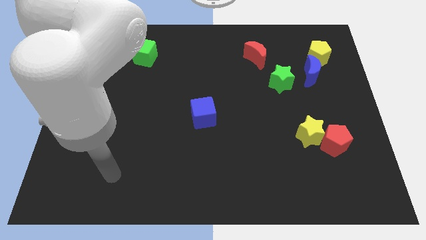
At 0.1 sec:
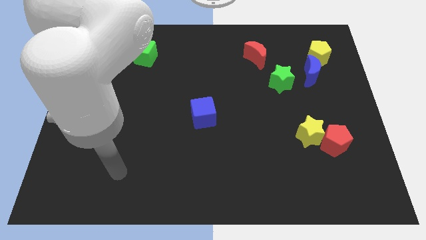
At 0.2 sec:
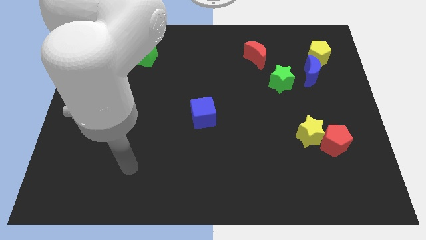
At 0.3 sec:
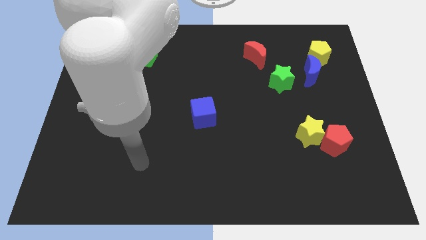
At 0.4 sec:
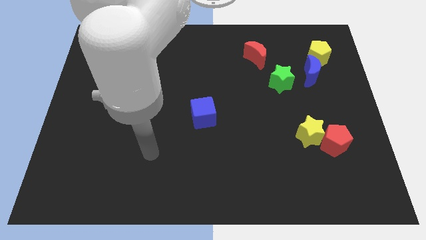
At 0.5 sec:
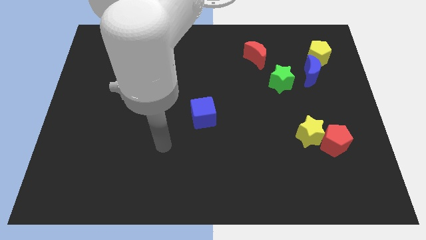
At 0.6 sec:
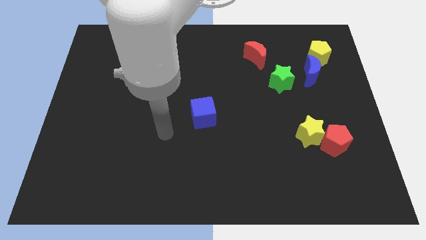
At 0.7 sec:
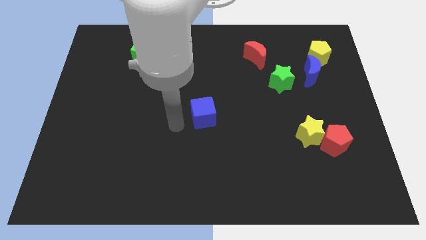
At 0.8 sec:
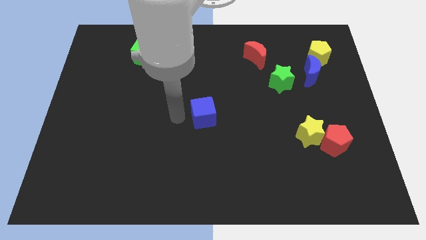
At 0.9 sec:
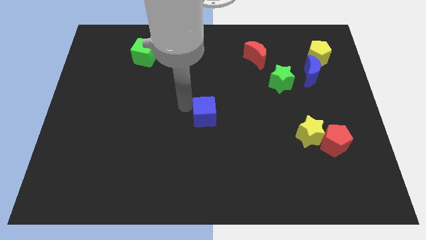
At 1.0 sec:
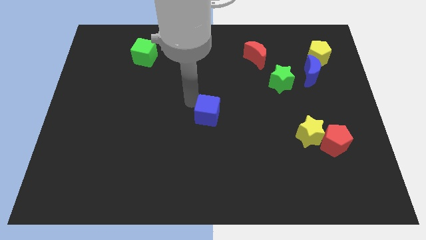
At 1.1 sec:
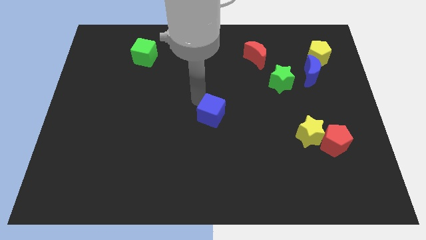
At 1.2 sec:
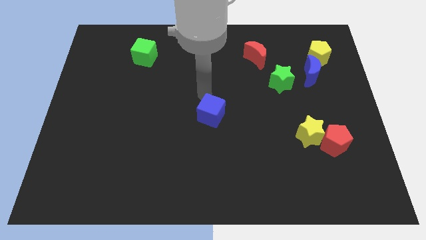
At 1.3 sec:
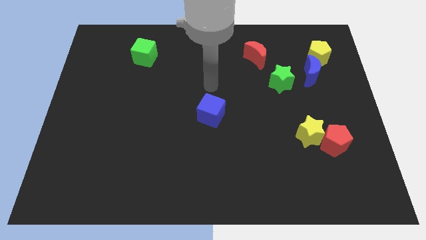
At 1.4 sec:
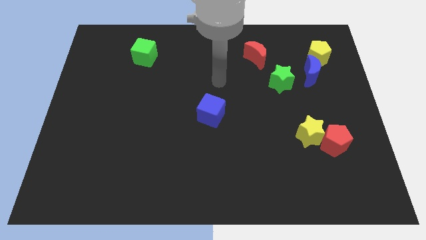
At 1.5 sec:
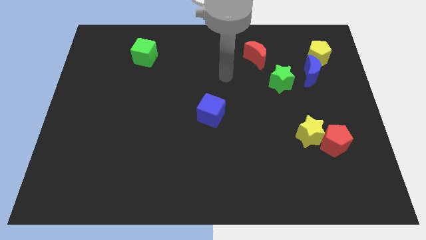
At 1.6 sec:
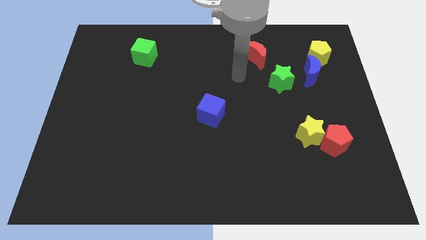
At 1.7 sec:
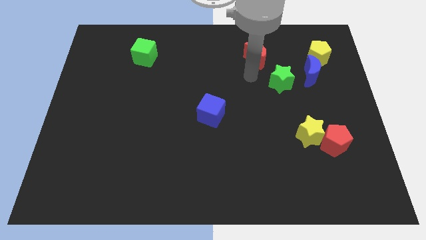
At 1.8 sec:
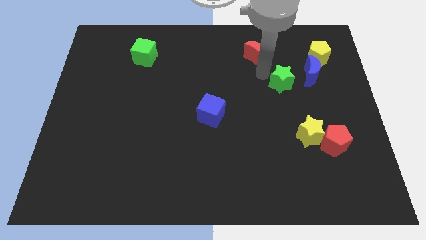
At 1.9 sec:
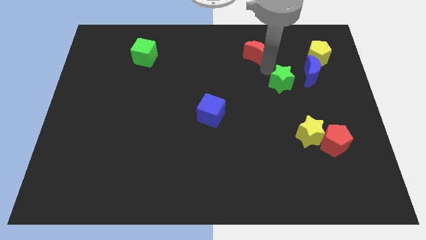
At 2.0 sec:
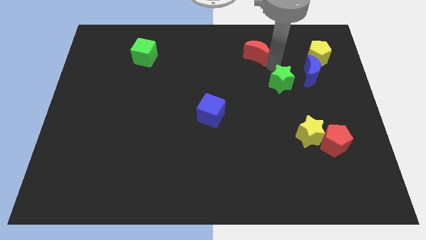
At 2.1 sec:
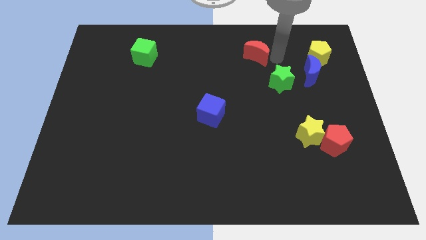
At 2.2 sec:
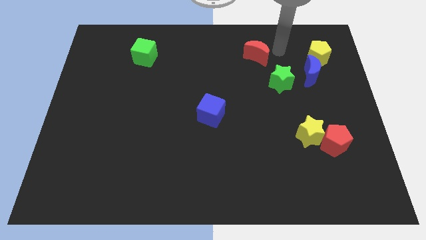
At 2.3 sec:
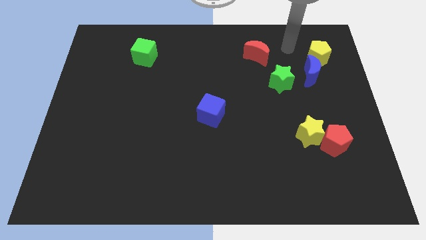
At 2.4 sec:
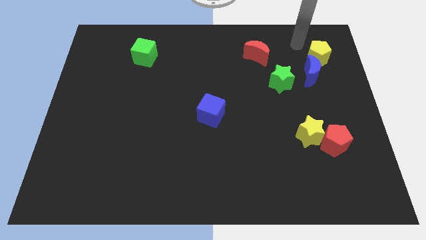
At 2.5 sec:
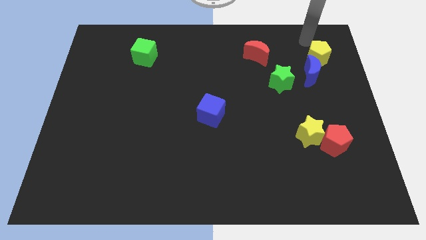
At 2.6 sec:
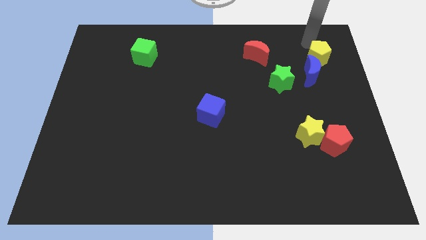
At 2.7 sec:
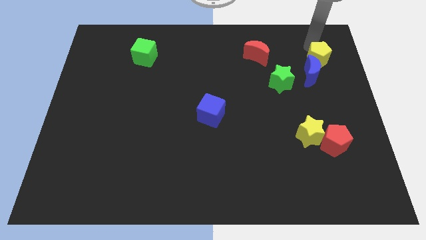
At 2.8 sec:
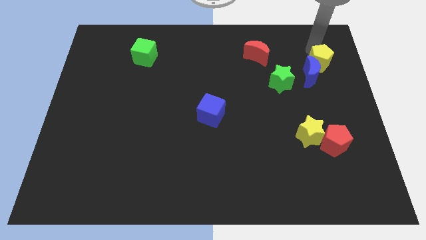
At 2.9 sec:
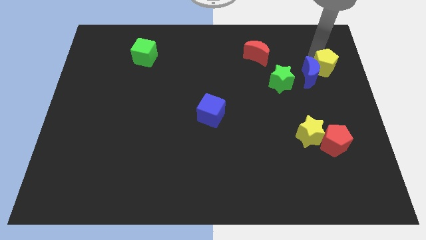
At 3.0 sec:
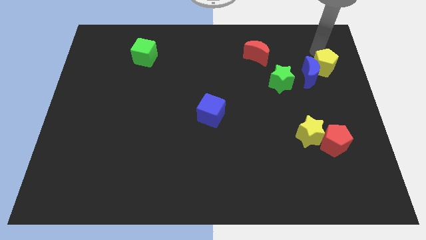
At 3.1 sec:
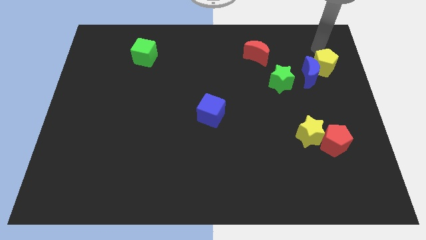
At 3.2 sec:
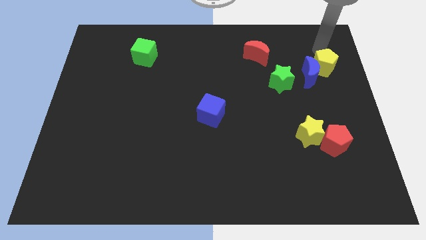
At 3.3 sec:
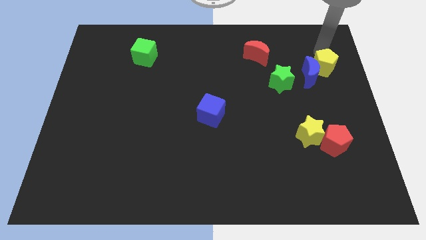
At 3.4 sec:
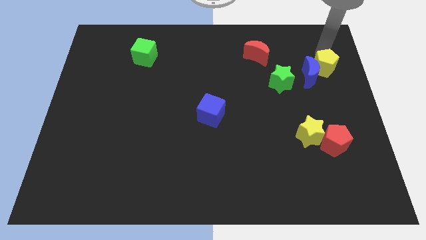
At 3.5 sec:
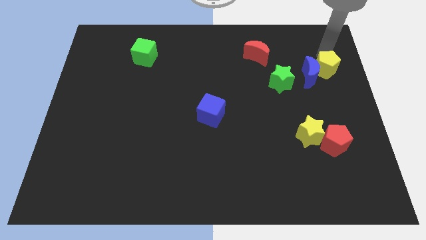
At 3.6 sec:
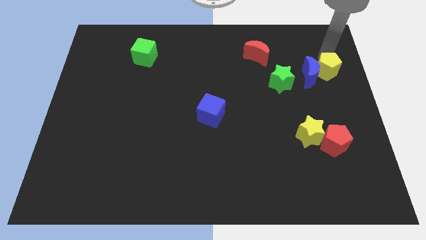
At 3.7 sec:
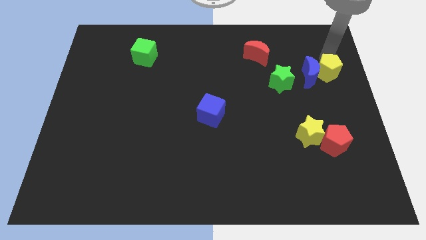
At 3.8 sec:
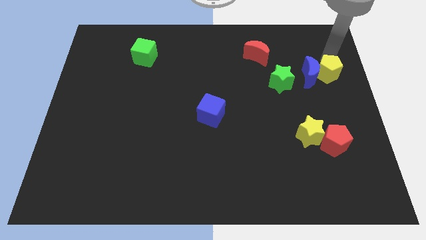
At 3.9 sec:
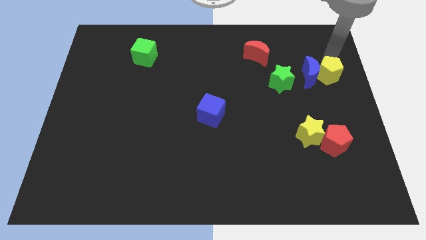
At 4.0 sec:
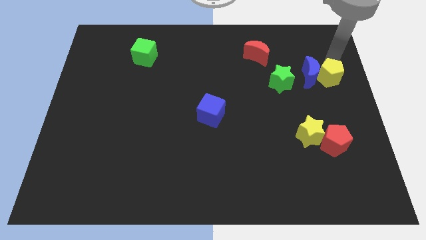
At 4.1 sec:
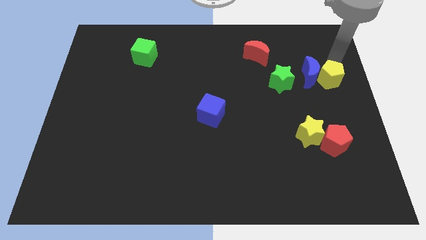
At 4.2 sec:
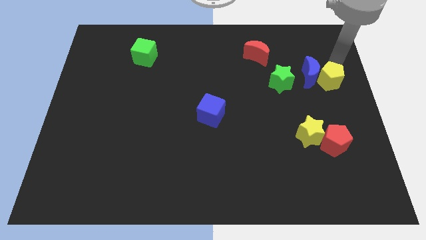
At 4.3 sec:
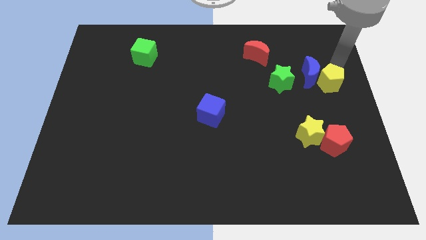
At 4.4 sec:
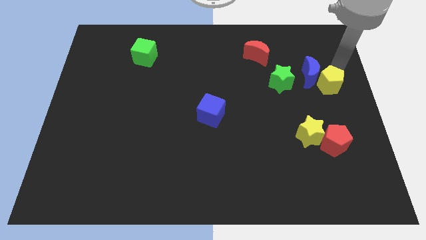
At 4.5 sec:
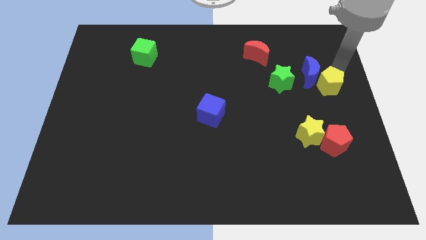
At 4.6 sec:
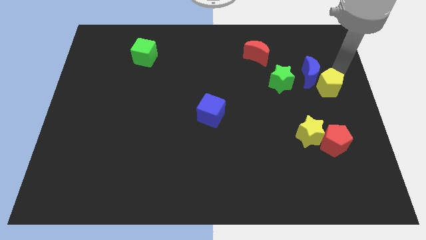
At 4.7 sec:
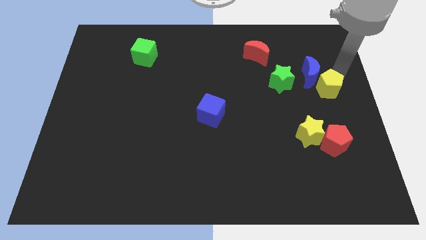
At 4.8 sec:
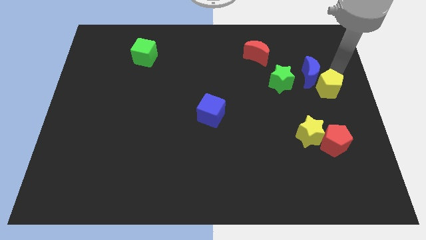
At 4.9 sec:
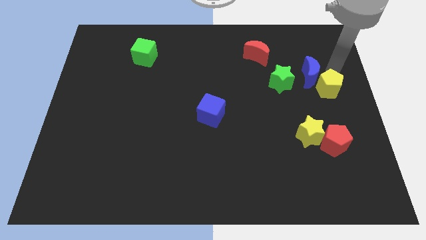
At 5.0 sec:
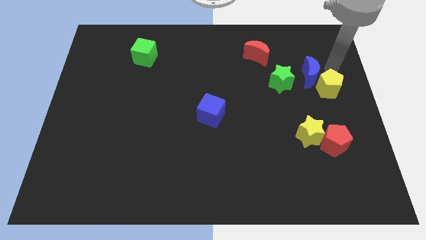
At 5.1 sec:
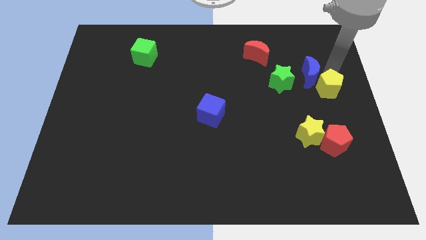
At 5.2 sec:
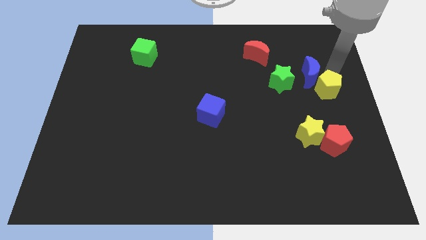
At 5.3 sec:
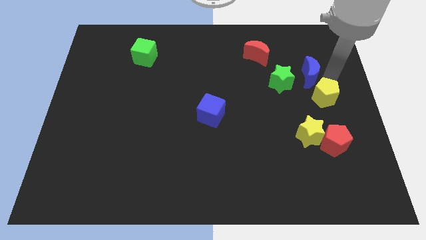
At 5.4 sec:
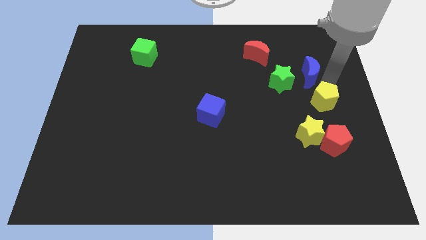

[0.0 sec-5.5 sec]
put the yellow pentagon to the top right of the yellow star

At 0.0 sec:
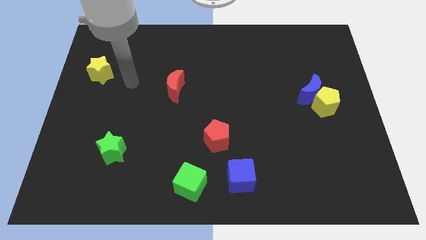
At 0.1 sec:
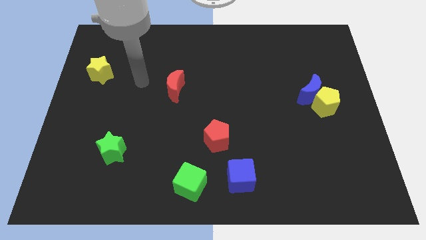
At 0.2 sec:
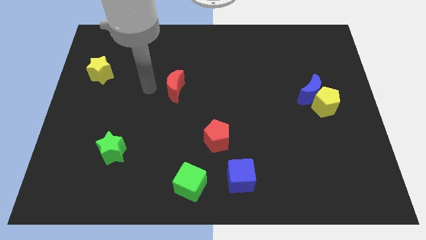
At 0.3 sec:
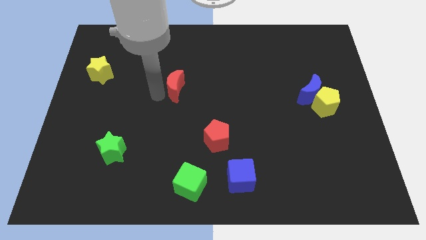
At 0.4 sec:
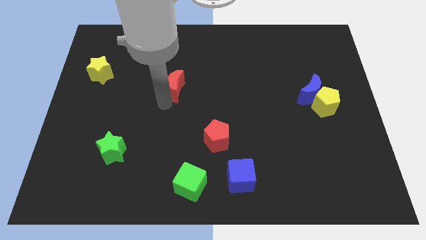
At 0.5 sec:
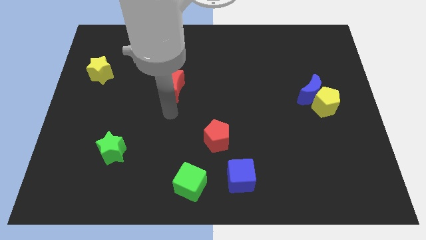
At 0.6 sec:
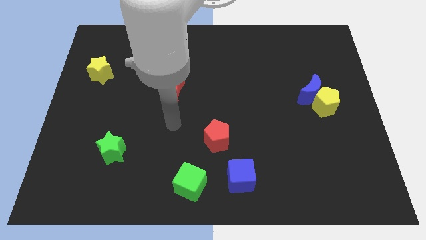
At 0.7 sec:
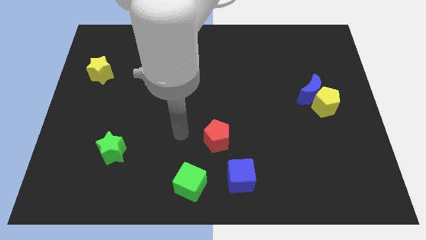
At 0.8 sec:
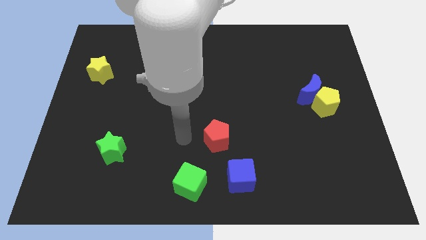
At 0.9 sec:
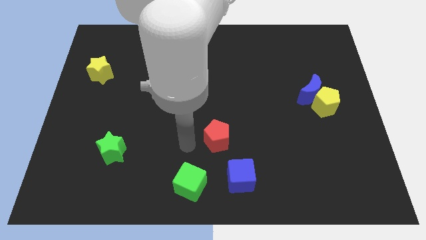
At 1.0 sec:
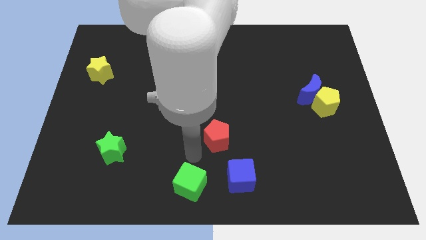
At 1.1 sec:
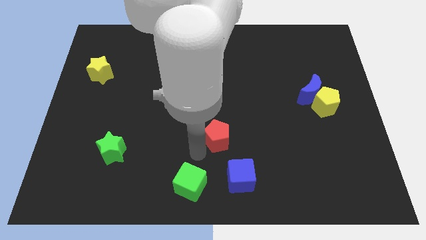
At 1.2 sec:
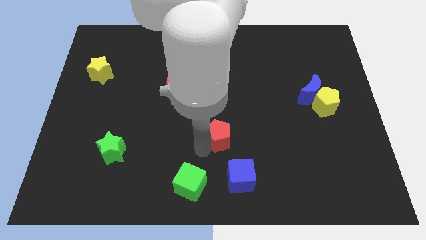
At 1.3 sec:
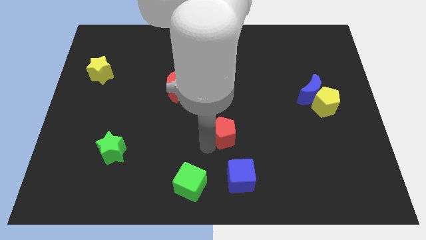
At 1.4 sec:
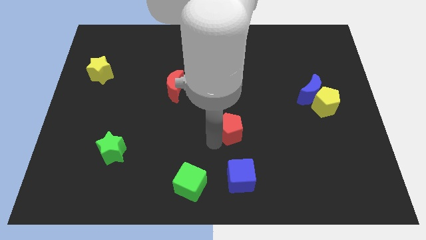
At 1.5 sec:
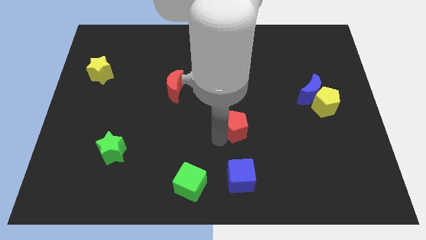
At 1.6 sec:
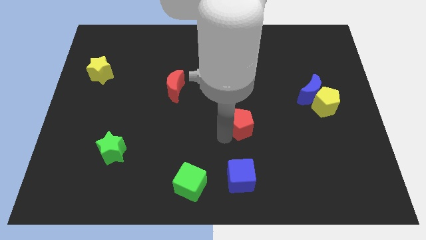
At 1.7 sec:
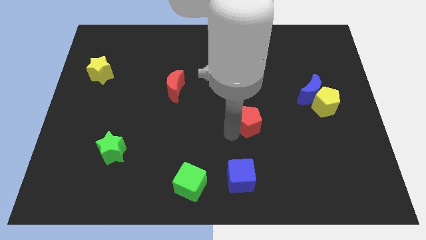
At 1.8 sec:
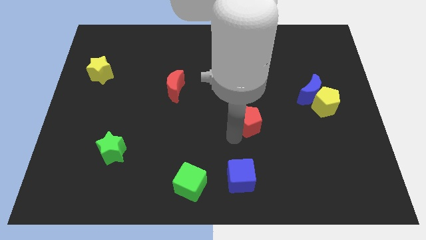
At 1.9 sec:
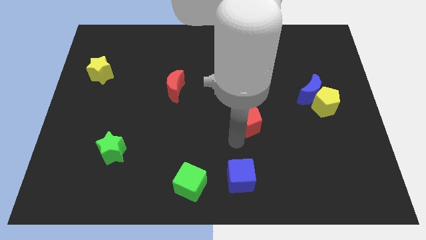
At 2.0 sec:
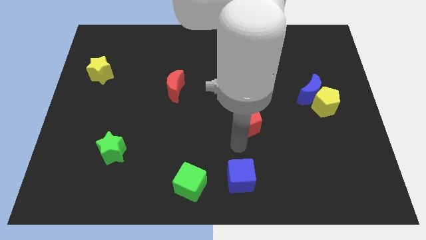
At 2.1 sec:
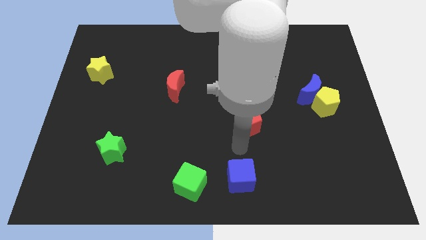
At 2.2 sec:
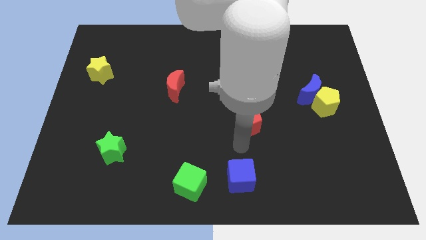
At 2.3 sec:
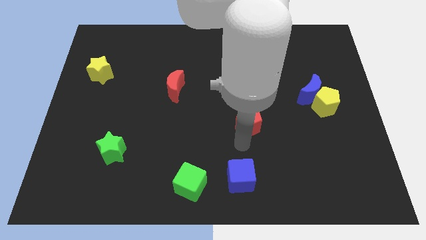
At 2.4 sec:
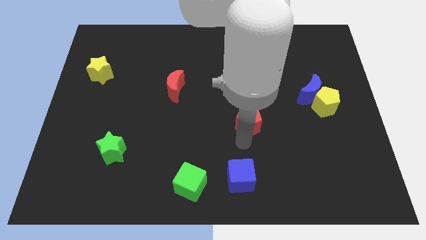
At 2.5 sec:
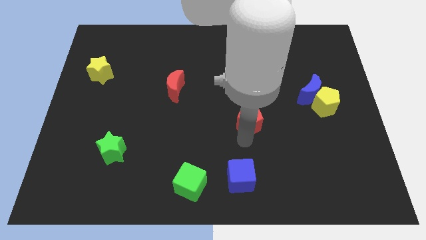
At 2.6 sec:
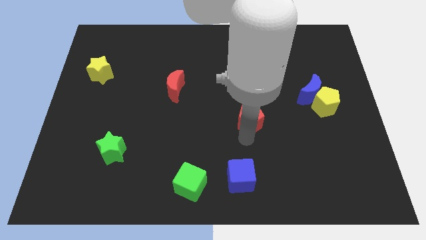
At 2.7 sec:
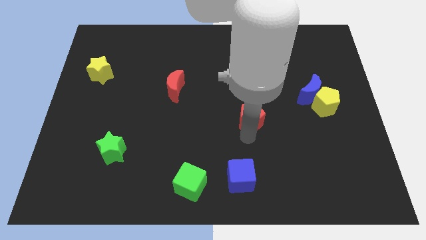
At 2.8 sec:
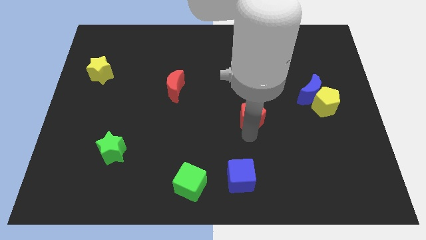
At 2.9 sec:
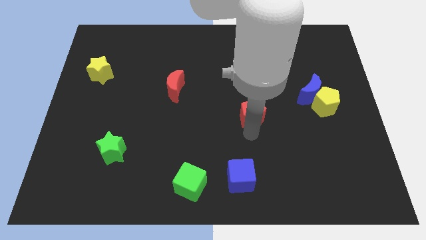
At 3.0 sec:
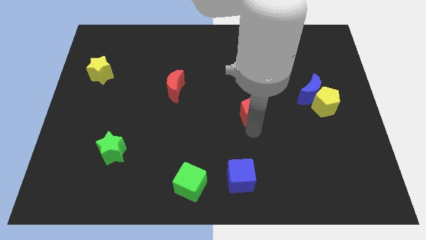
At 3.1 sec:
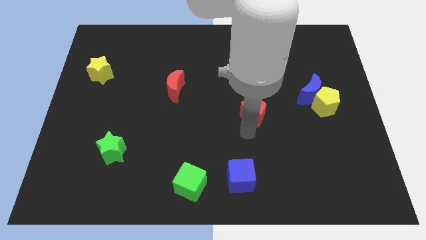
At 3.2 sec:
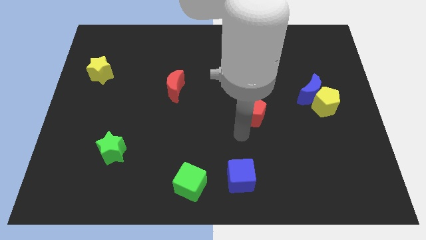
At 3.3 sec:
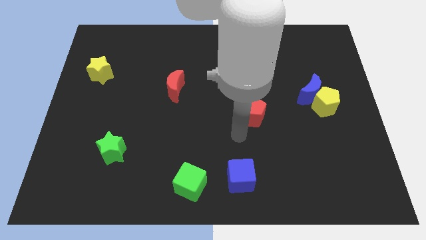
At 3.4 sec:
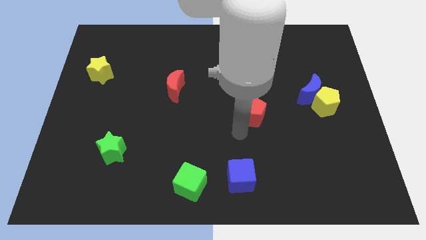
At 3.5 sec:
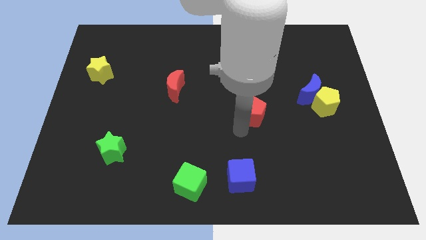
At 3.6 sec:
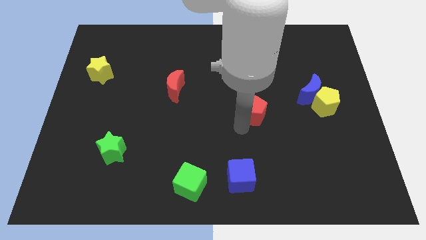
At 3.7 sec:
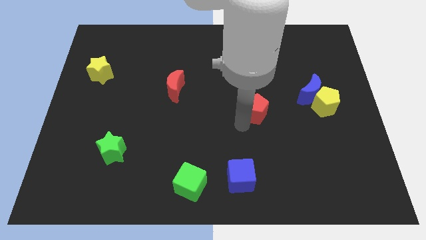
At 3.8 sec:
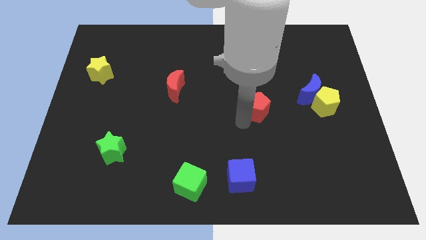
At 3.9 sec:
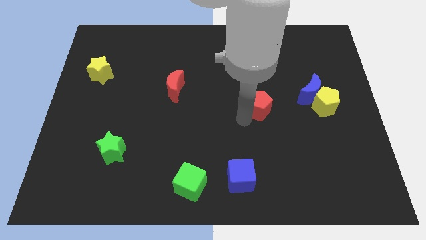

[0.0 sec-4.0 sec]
put the red pentagon to the left of the blue moon
